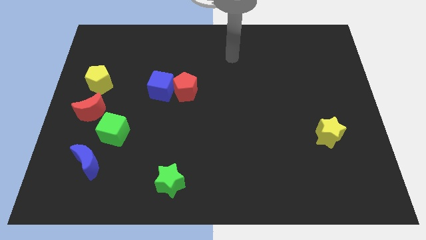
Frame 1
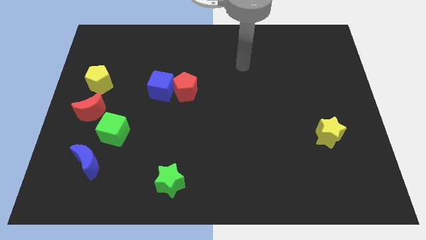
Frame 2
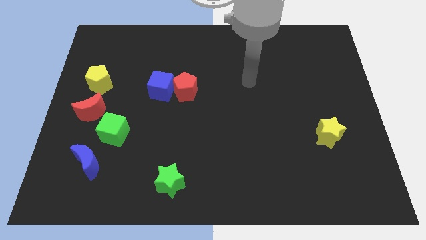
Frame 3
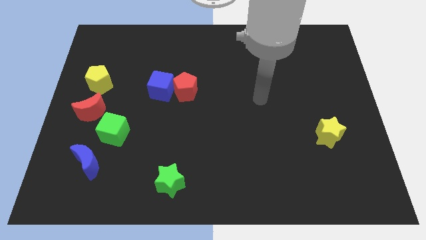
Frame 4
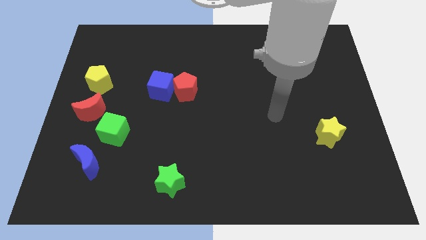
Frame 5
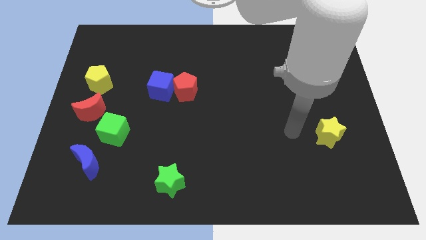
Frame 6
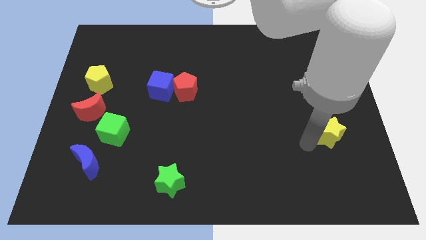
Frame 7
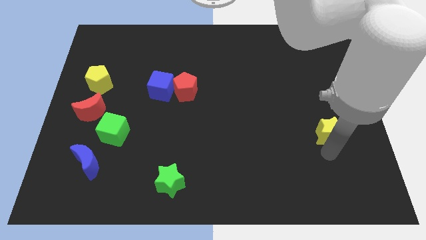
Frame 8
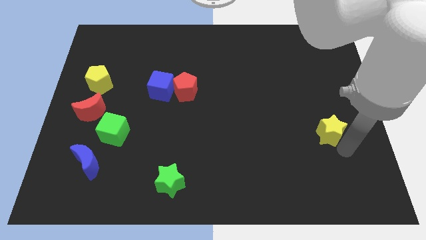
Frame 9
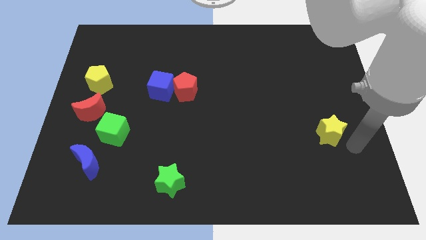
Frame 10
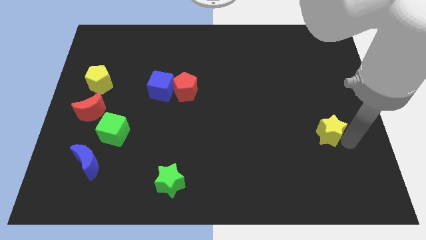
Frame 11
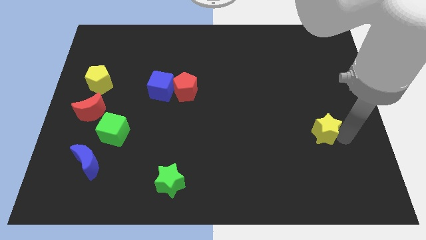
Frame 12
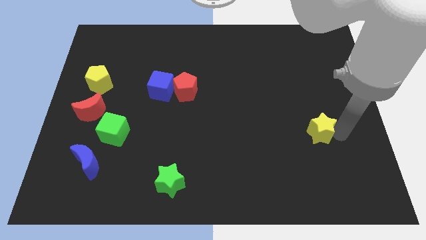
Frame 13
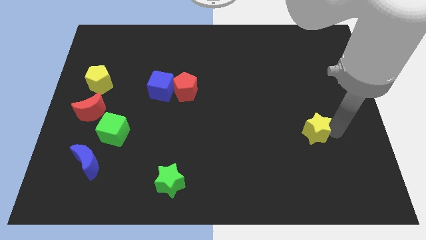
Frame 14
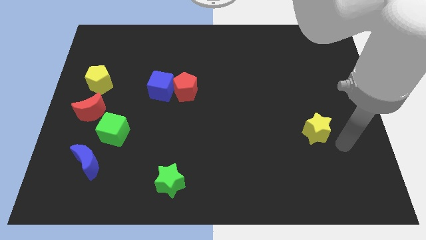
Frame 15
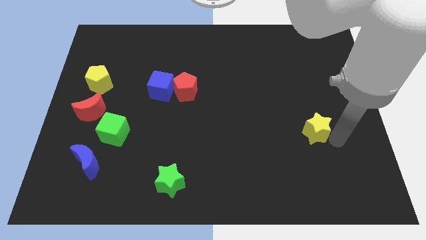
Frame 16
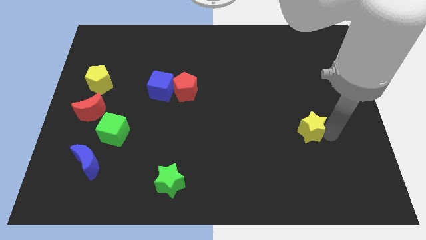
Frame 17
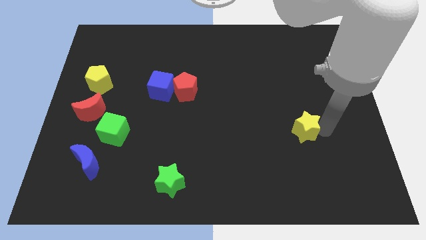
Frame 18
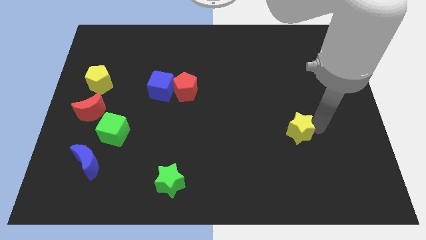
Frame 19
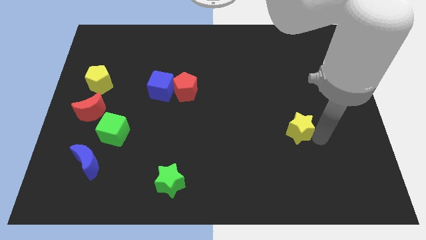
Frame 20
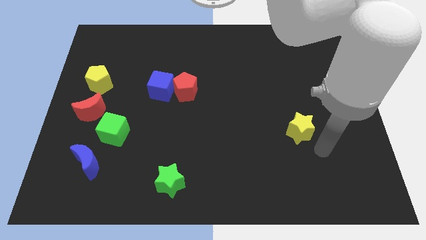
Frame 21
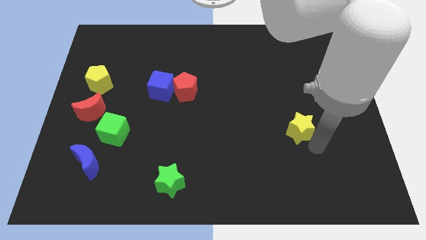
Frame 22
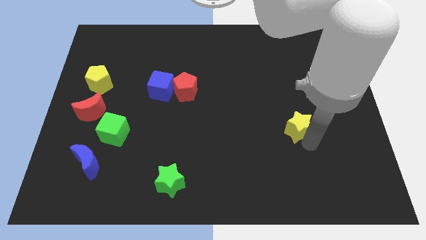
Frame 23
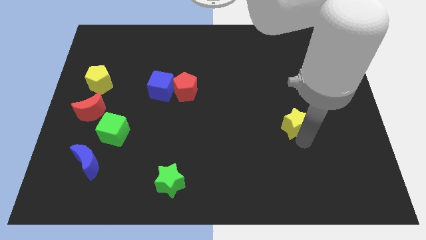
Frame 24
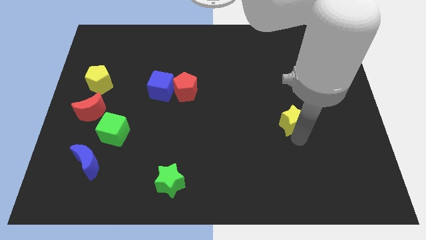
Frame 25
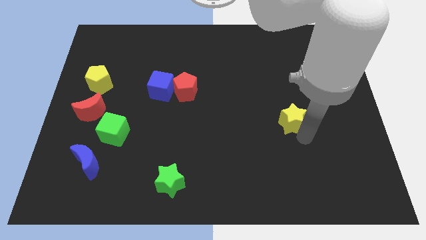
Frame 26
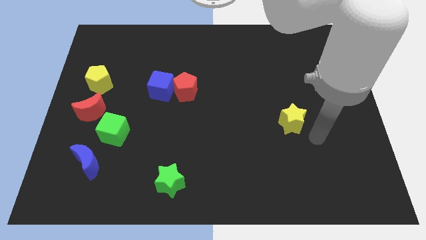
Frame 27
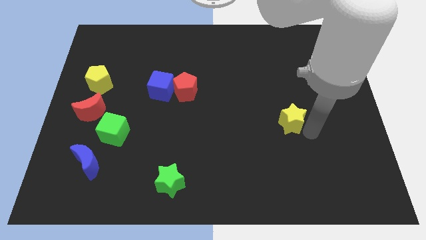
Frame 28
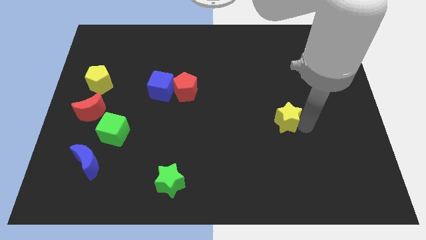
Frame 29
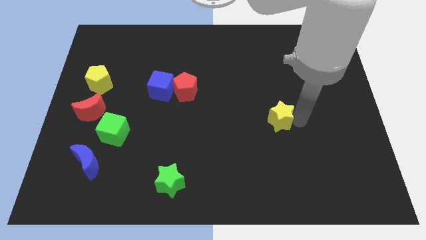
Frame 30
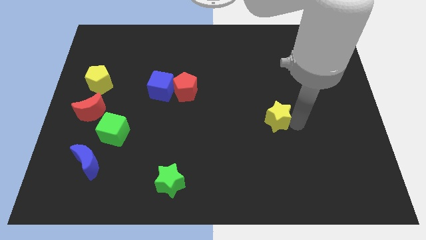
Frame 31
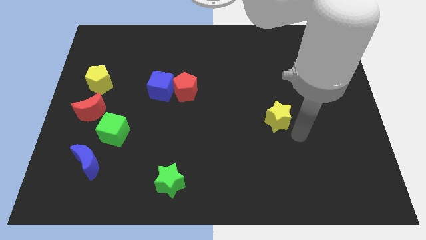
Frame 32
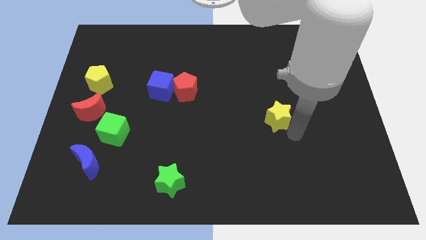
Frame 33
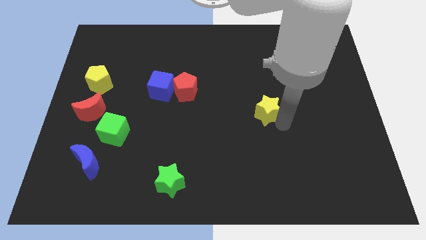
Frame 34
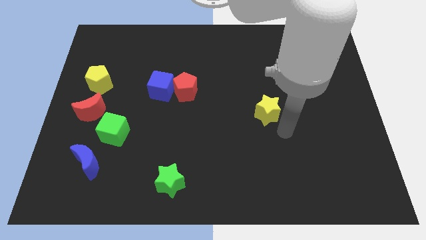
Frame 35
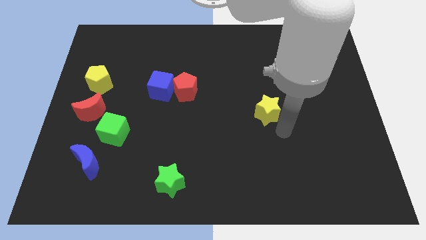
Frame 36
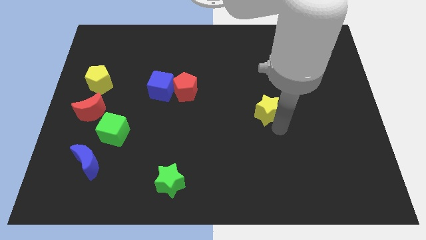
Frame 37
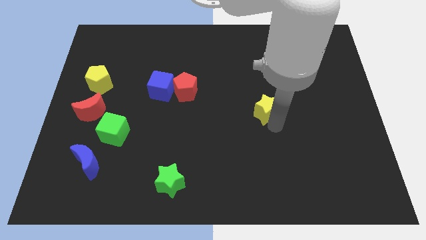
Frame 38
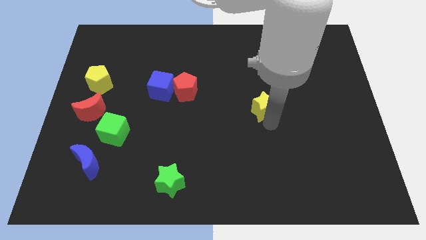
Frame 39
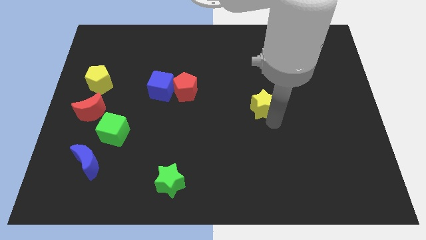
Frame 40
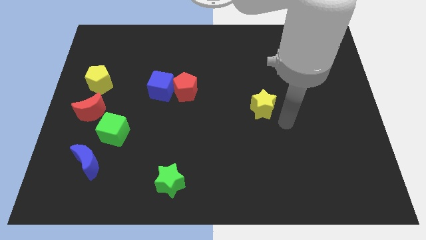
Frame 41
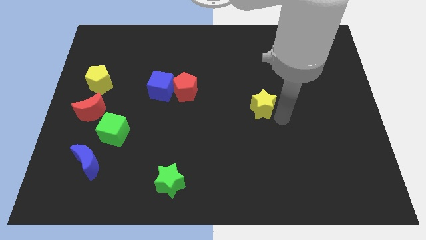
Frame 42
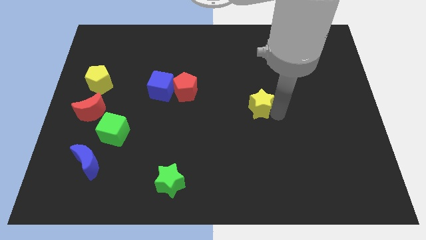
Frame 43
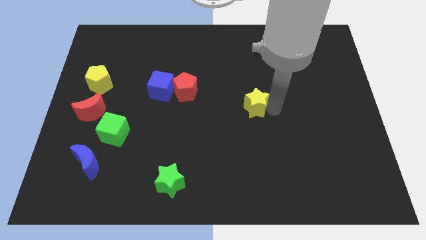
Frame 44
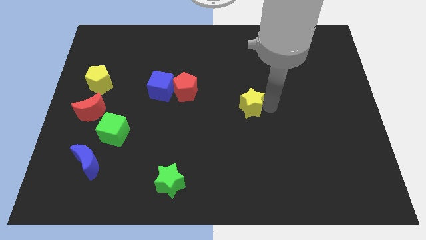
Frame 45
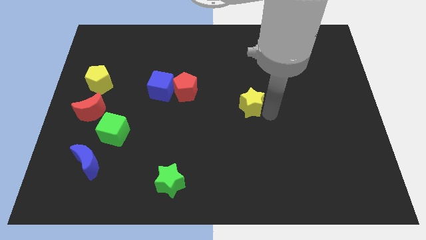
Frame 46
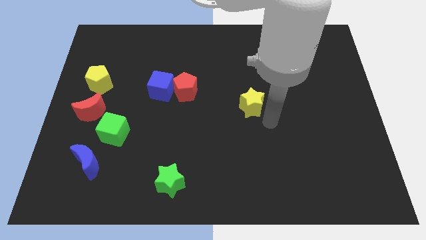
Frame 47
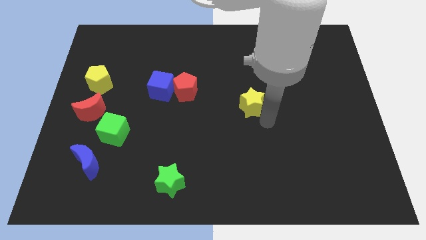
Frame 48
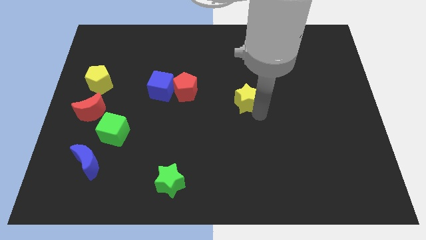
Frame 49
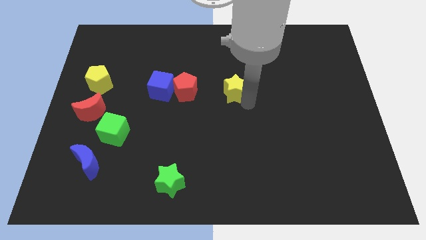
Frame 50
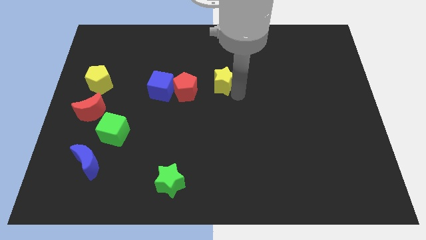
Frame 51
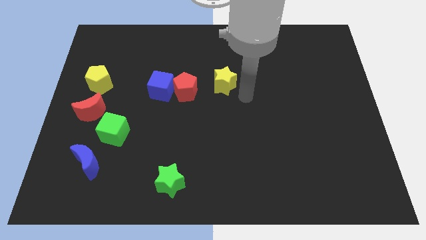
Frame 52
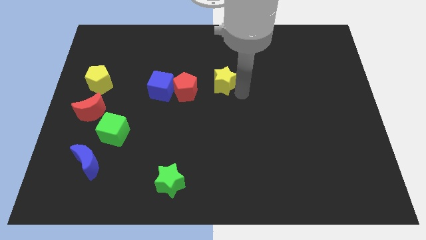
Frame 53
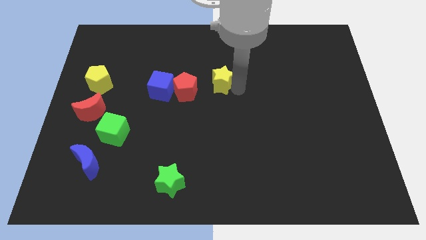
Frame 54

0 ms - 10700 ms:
push the yellow star to the top right of the red pentagon

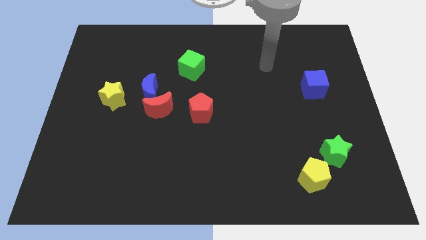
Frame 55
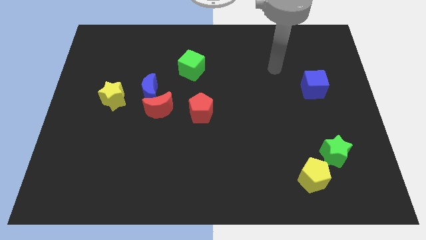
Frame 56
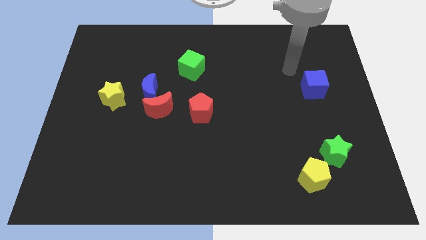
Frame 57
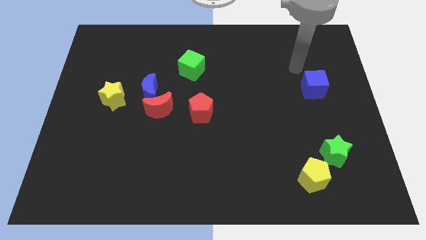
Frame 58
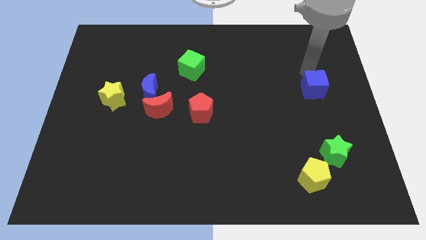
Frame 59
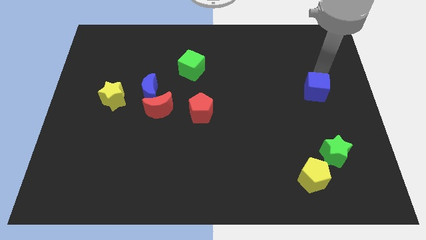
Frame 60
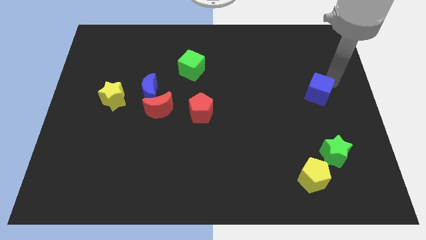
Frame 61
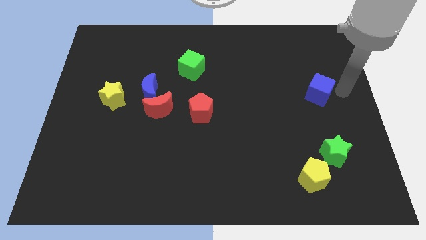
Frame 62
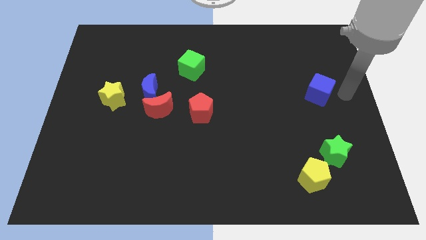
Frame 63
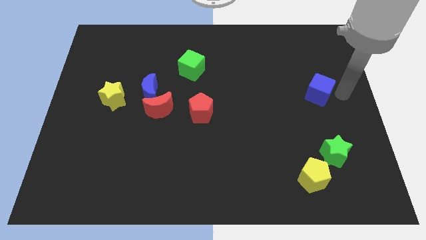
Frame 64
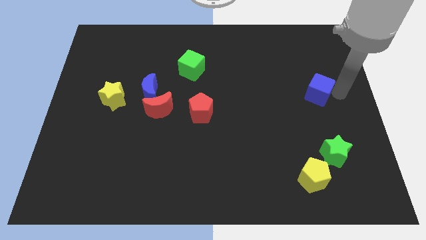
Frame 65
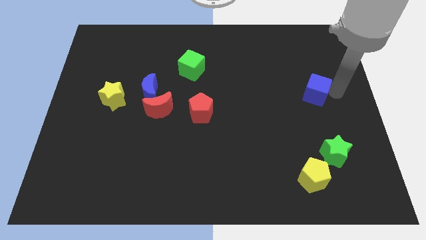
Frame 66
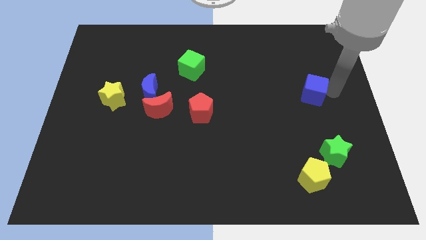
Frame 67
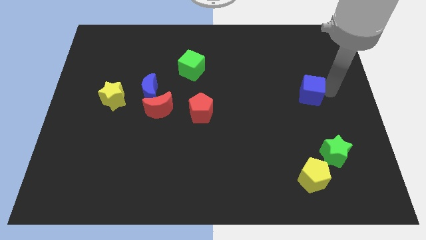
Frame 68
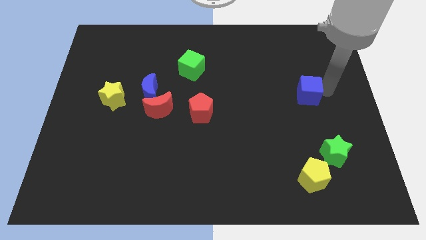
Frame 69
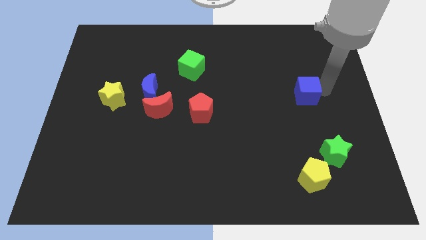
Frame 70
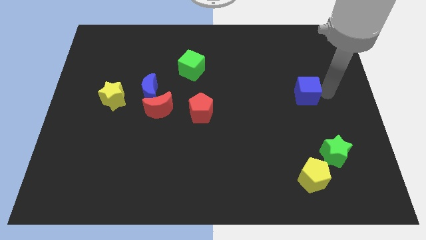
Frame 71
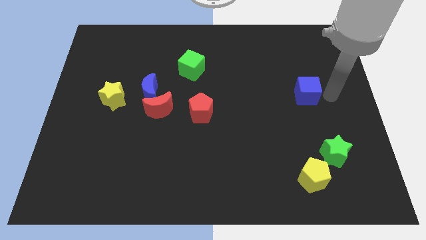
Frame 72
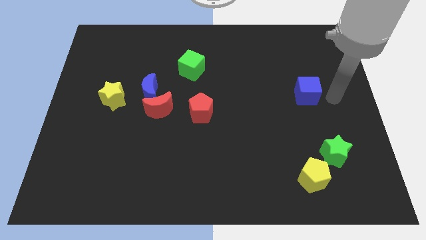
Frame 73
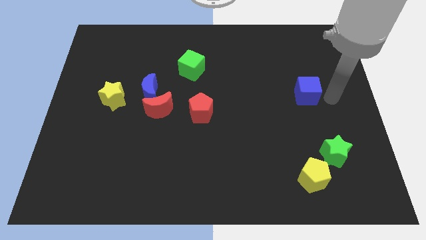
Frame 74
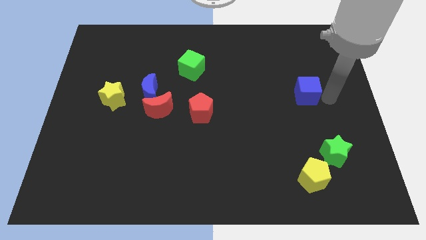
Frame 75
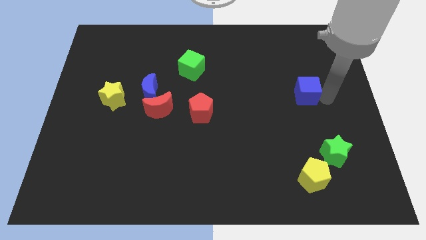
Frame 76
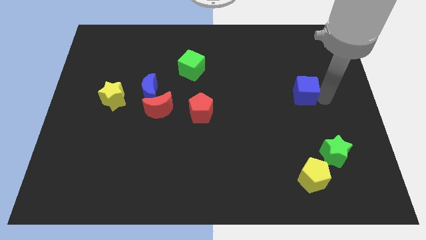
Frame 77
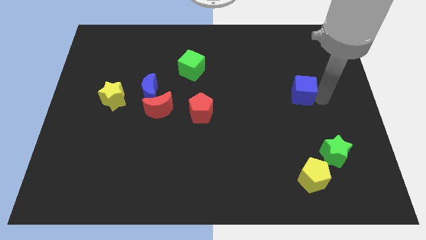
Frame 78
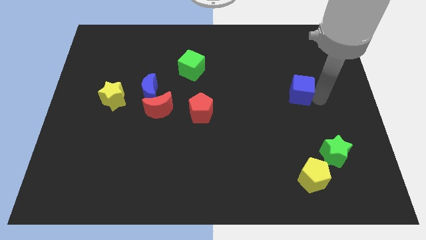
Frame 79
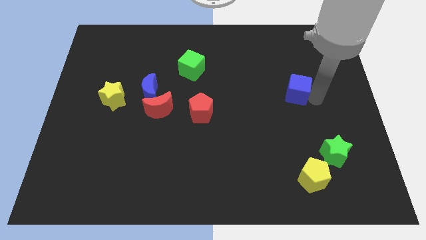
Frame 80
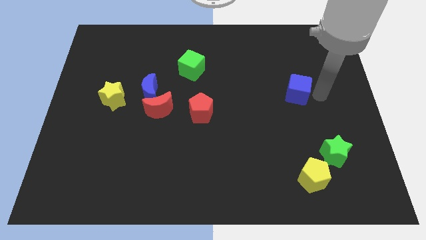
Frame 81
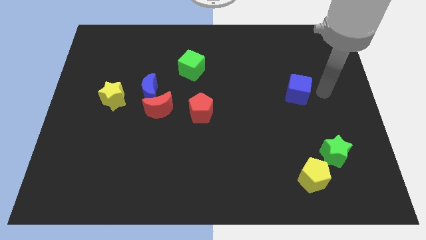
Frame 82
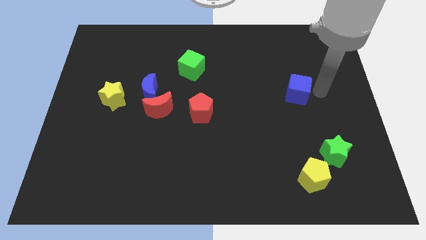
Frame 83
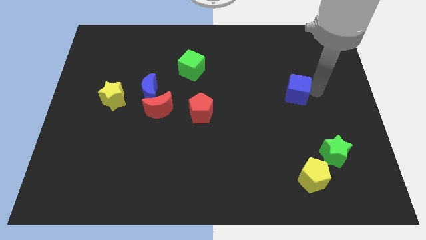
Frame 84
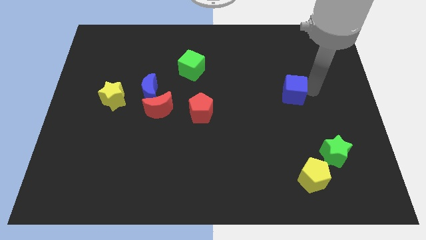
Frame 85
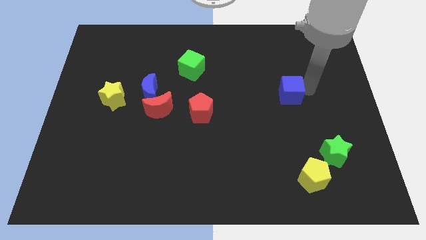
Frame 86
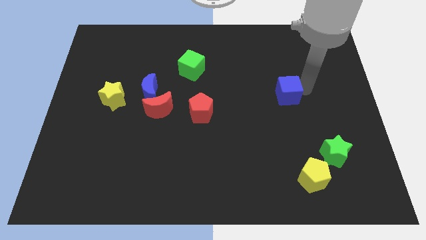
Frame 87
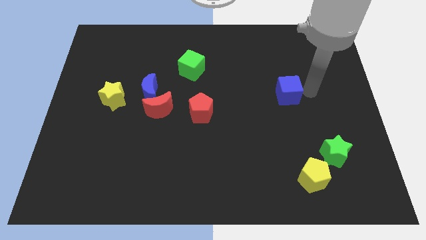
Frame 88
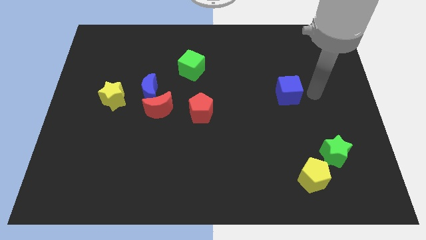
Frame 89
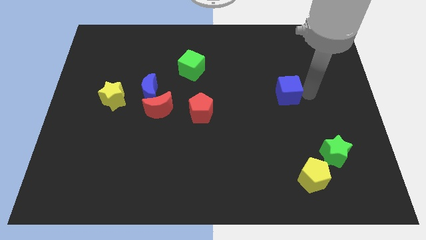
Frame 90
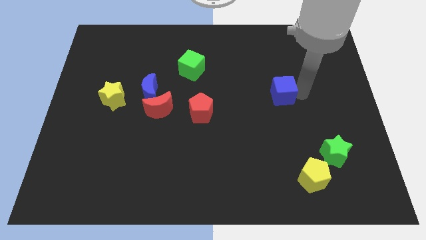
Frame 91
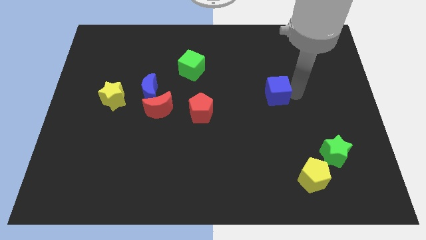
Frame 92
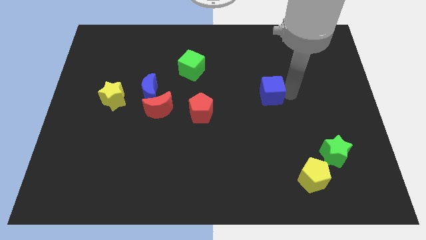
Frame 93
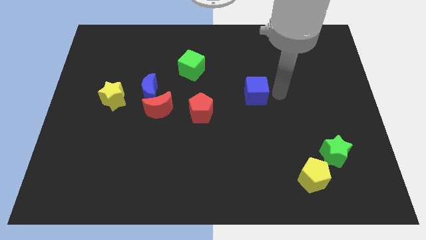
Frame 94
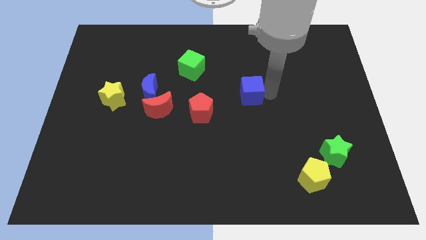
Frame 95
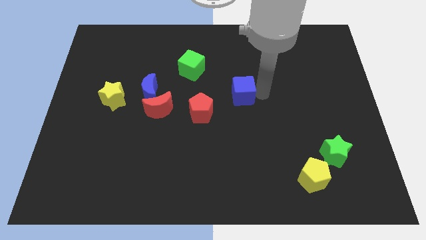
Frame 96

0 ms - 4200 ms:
put the blue cube to the top right of the red pentagon
